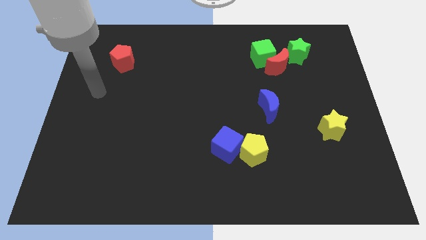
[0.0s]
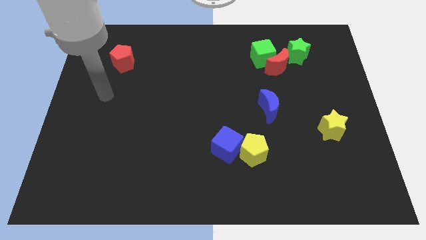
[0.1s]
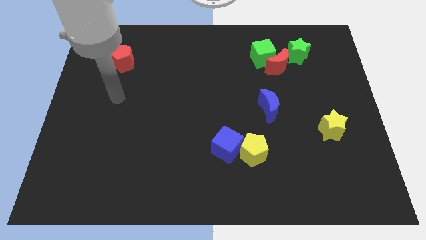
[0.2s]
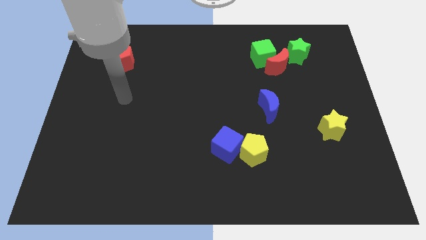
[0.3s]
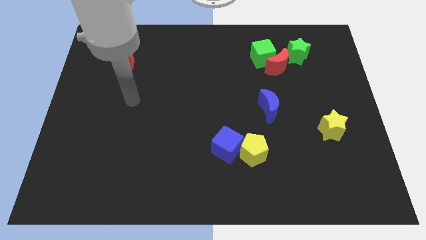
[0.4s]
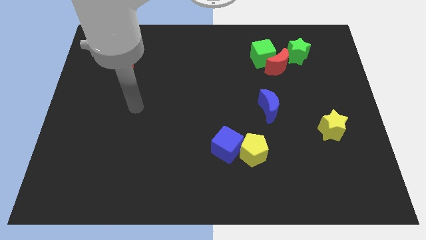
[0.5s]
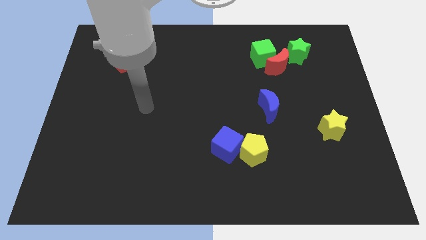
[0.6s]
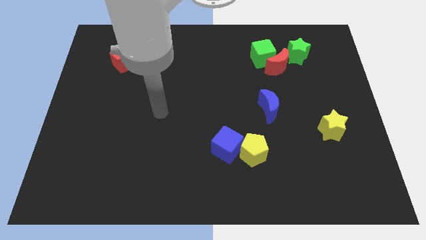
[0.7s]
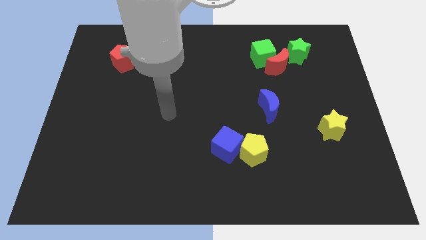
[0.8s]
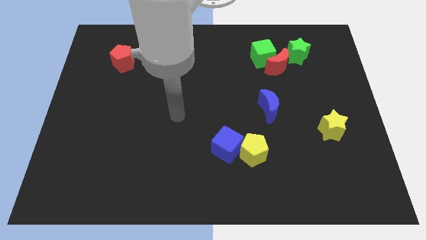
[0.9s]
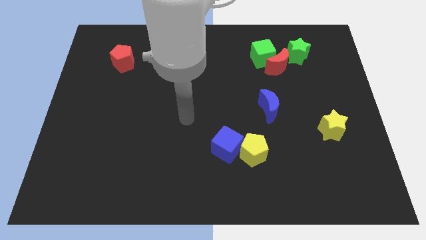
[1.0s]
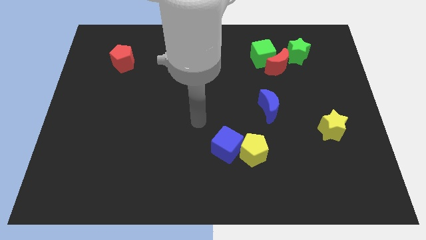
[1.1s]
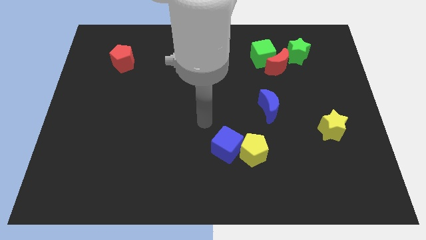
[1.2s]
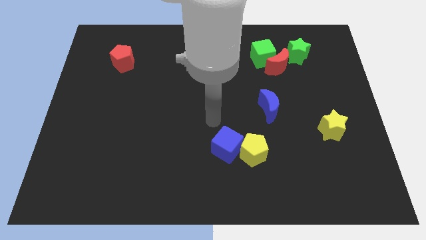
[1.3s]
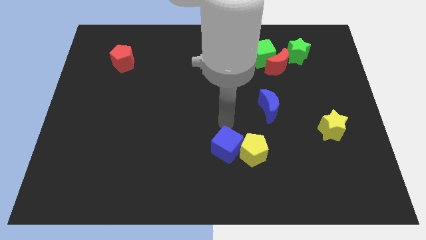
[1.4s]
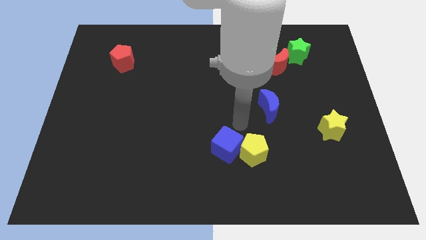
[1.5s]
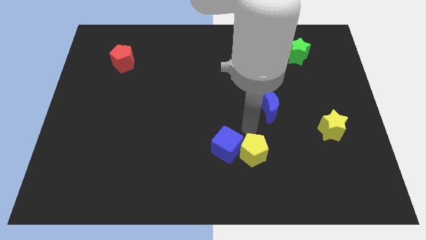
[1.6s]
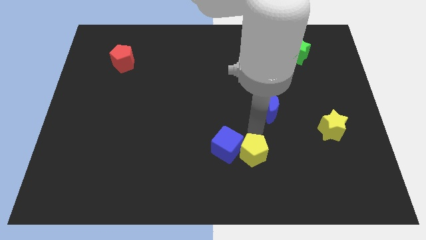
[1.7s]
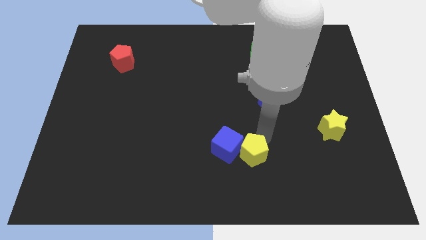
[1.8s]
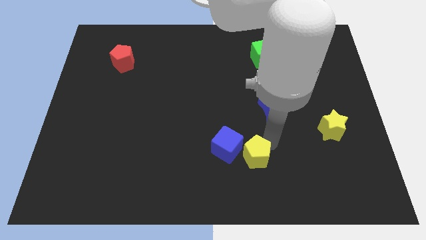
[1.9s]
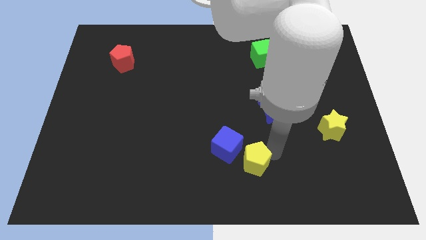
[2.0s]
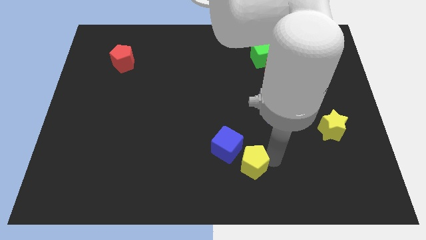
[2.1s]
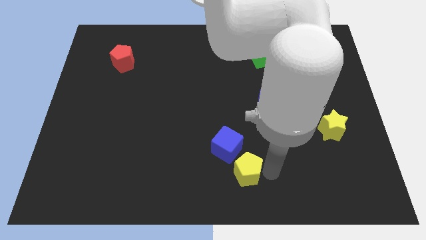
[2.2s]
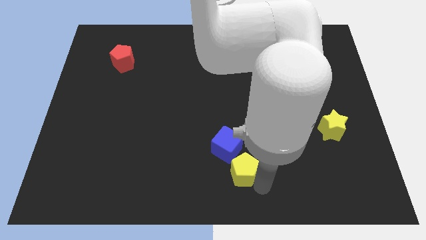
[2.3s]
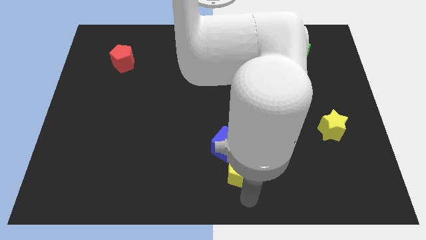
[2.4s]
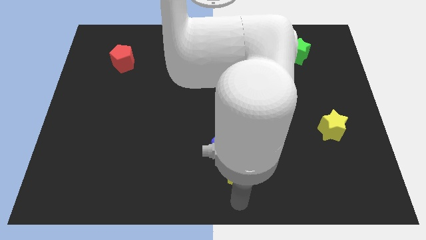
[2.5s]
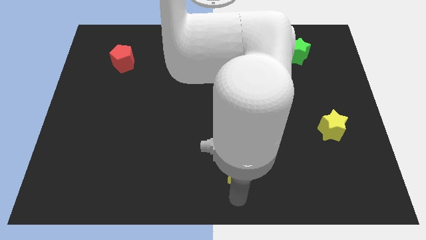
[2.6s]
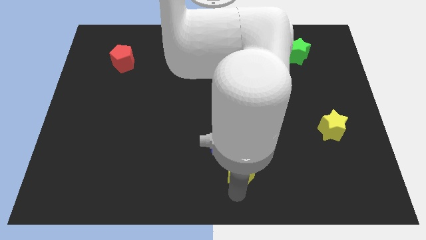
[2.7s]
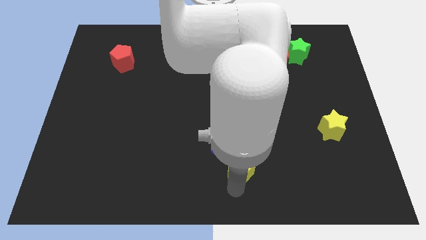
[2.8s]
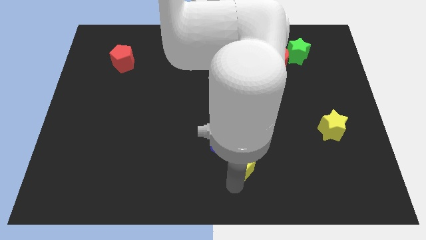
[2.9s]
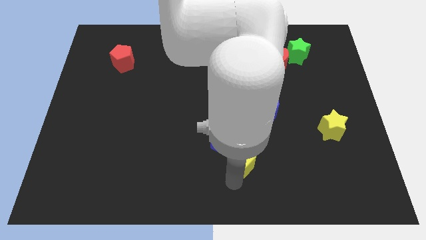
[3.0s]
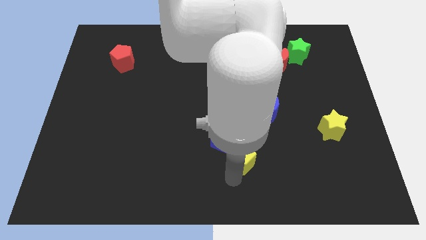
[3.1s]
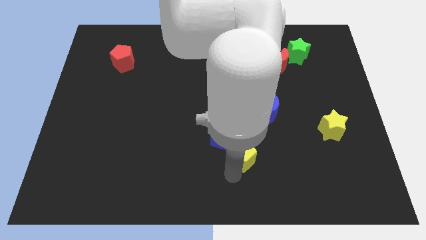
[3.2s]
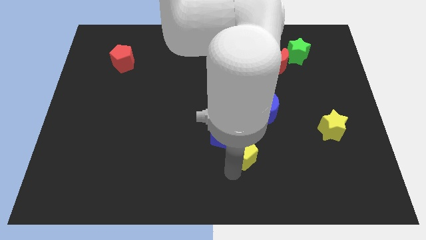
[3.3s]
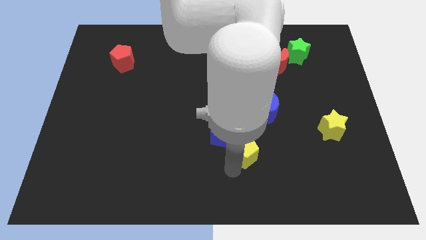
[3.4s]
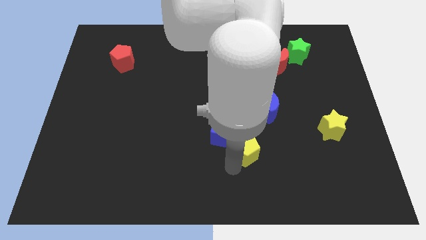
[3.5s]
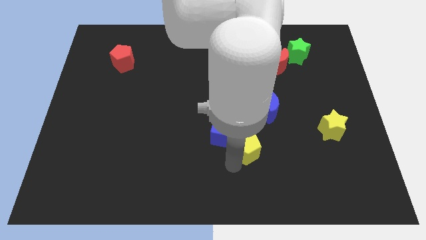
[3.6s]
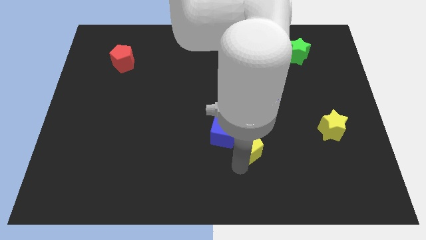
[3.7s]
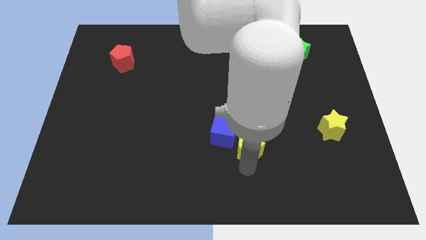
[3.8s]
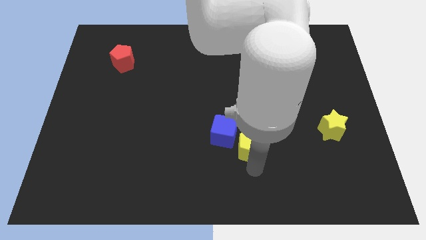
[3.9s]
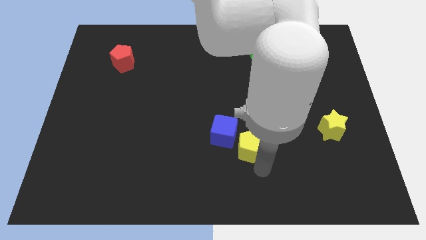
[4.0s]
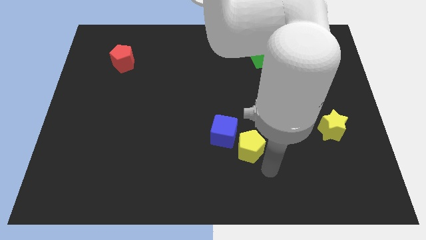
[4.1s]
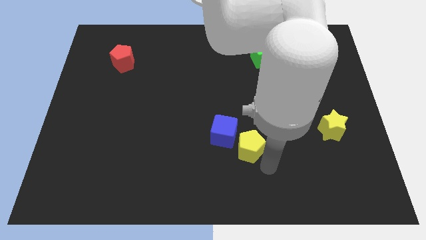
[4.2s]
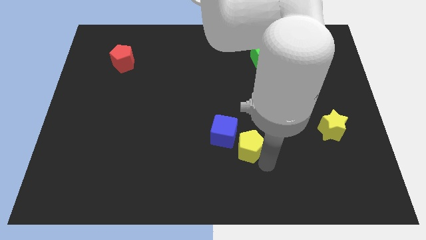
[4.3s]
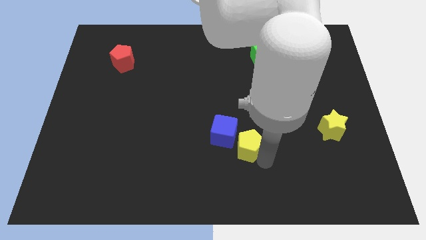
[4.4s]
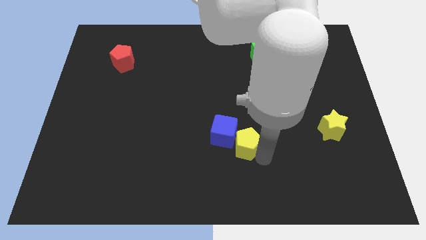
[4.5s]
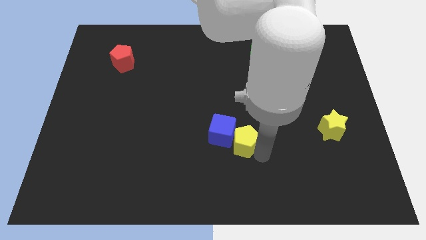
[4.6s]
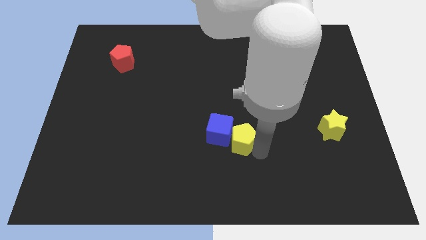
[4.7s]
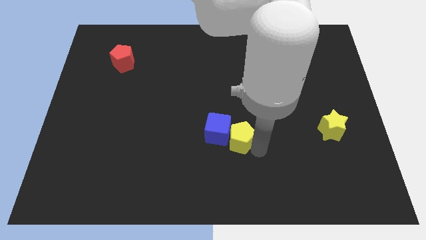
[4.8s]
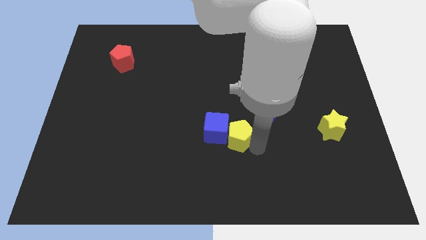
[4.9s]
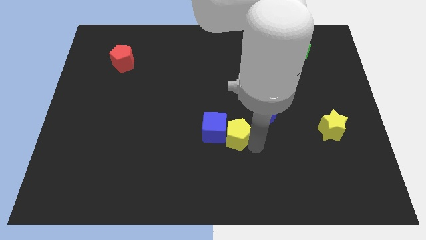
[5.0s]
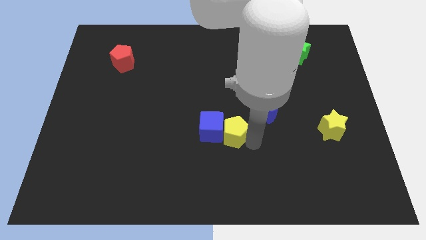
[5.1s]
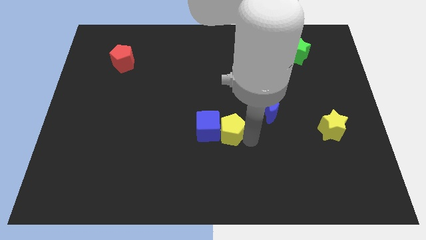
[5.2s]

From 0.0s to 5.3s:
slide the yellow pentagon upwards and to the left slightly

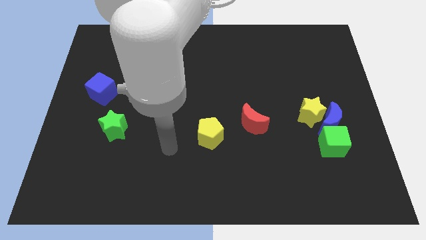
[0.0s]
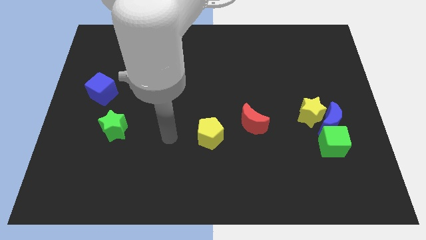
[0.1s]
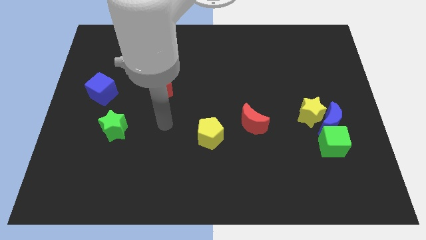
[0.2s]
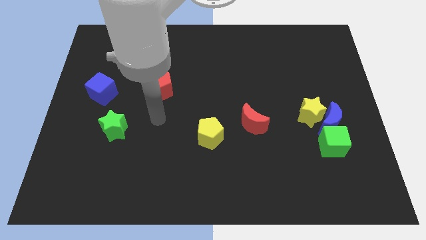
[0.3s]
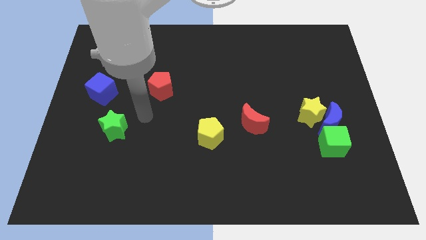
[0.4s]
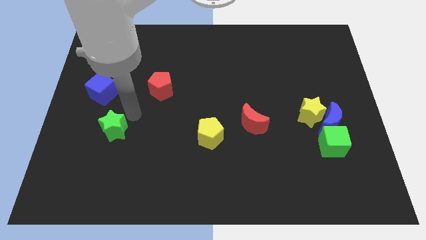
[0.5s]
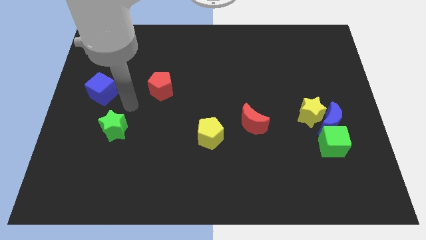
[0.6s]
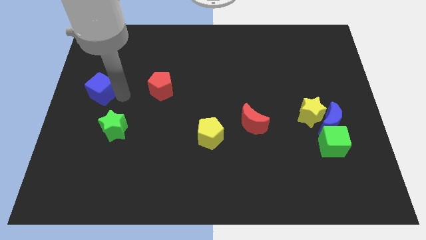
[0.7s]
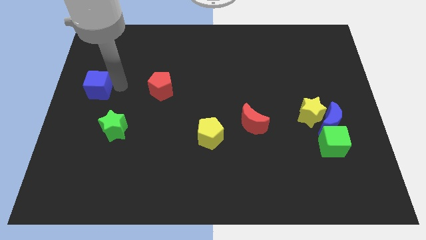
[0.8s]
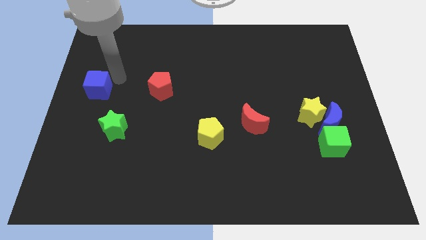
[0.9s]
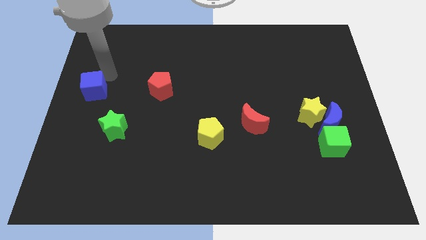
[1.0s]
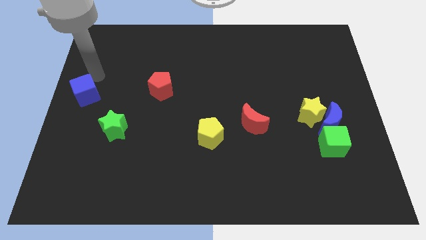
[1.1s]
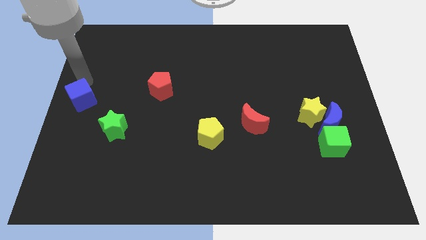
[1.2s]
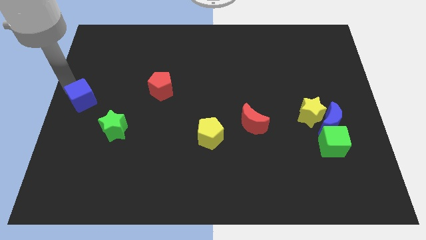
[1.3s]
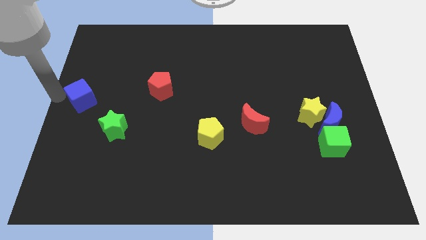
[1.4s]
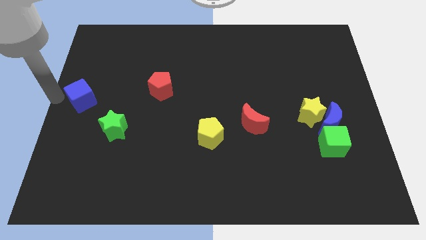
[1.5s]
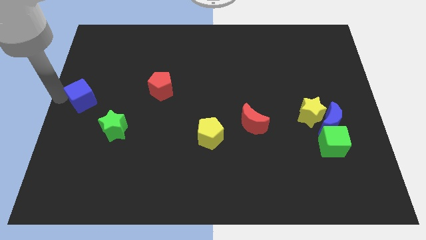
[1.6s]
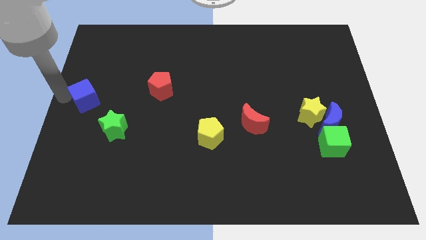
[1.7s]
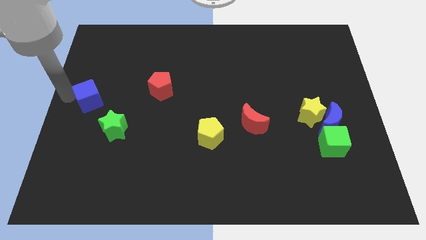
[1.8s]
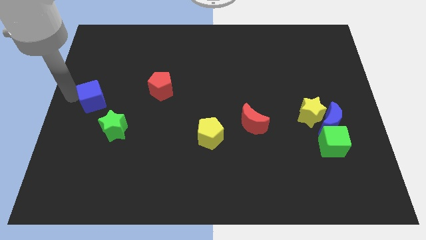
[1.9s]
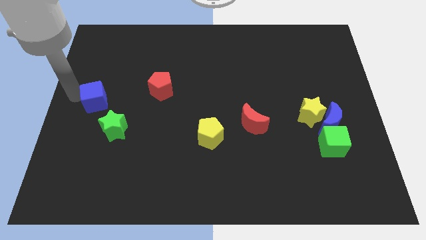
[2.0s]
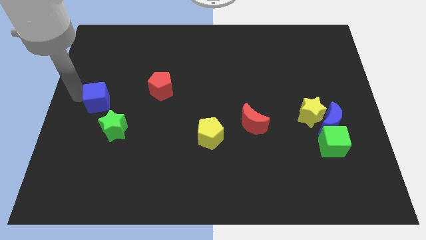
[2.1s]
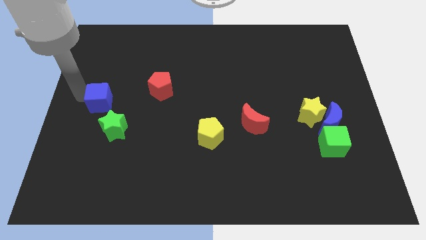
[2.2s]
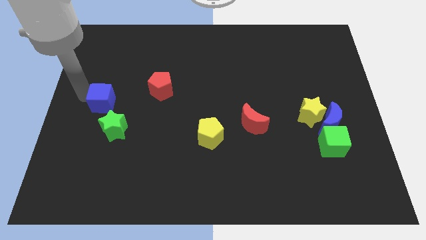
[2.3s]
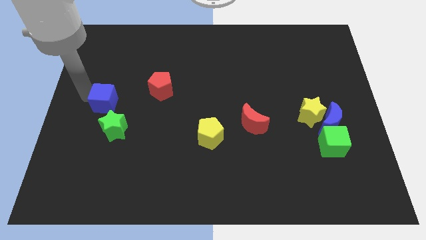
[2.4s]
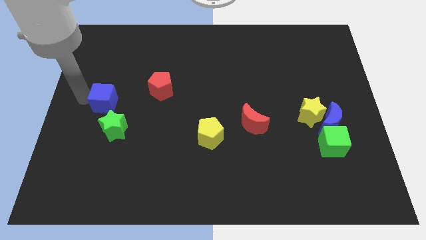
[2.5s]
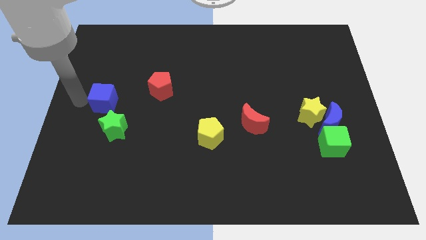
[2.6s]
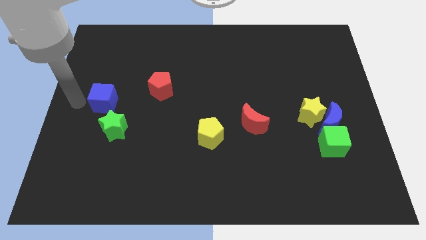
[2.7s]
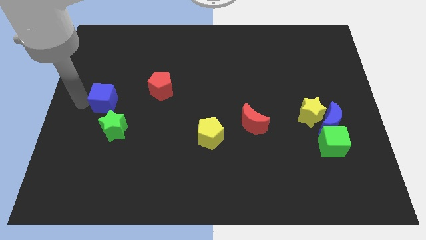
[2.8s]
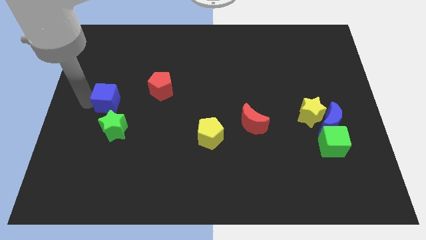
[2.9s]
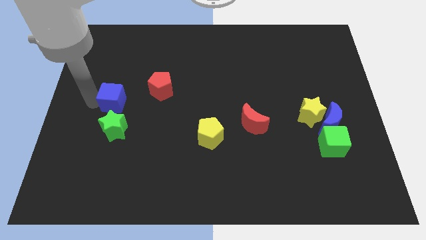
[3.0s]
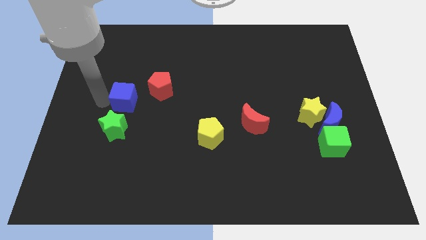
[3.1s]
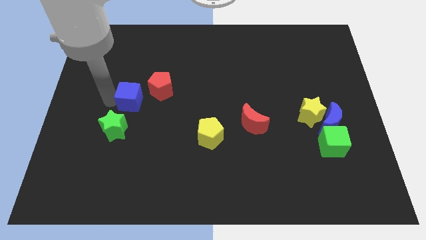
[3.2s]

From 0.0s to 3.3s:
slide the blue cube to the right a little bit

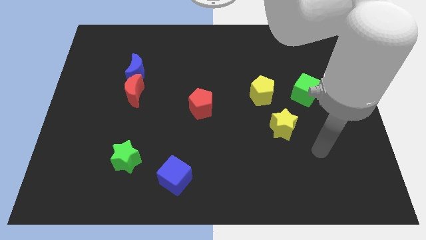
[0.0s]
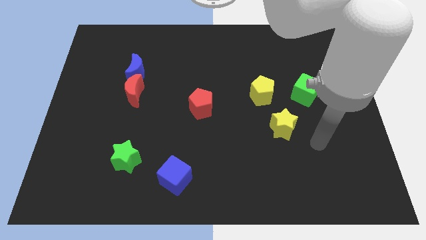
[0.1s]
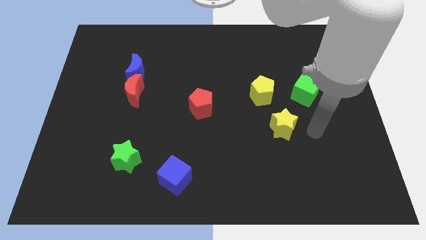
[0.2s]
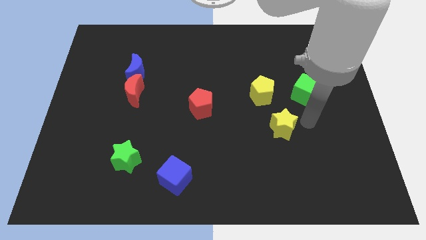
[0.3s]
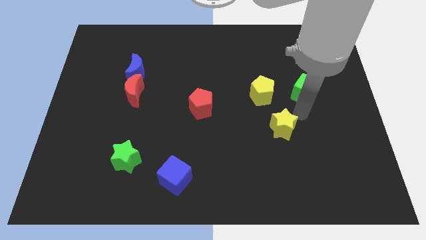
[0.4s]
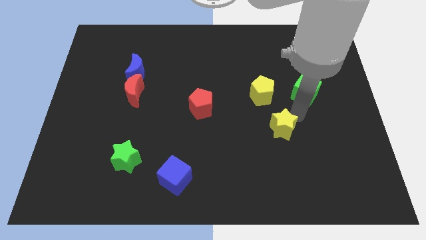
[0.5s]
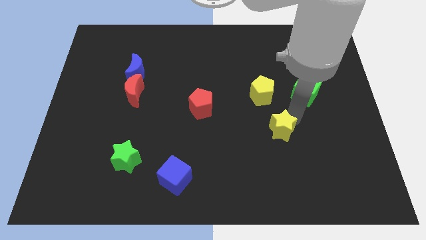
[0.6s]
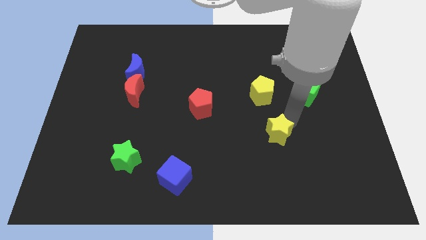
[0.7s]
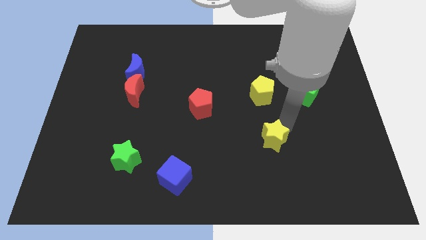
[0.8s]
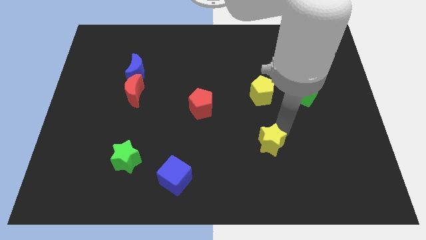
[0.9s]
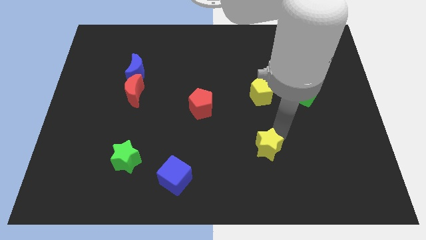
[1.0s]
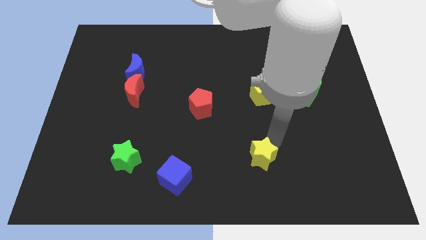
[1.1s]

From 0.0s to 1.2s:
slightly push the yellow star downwards and then left
